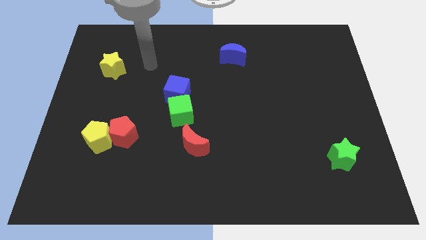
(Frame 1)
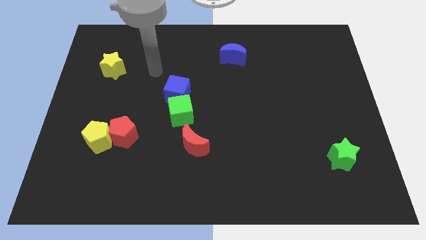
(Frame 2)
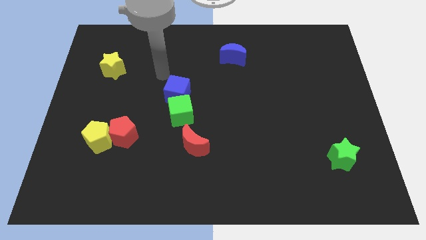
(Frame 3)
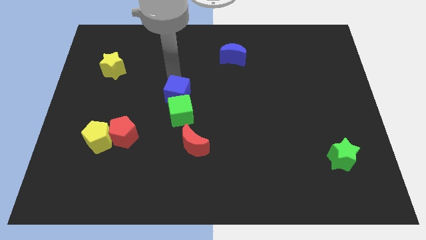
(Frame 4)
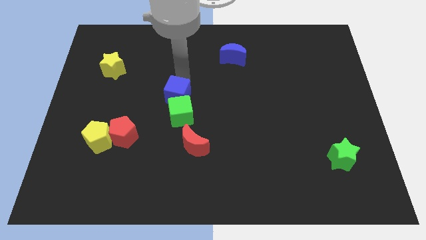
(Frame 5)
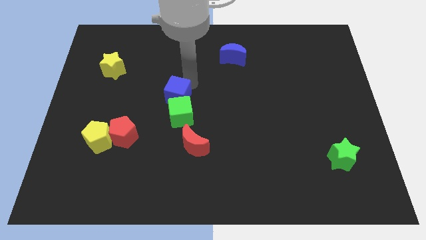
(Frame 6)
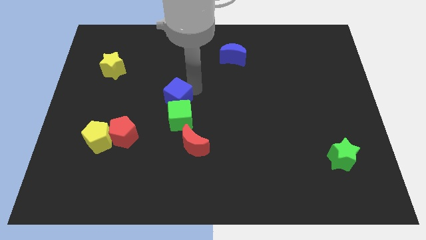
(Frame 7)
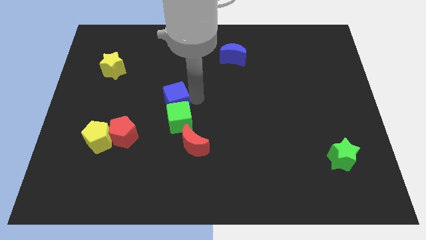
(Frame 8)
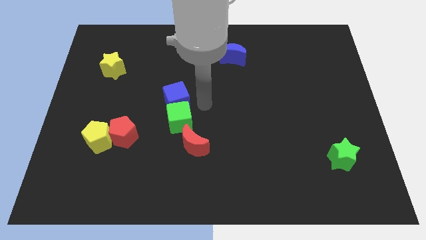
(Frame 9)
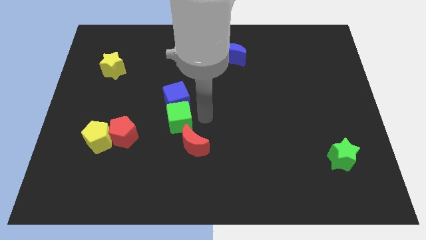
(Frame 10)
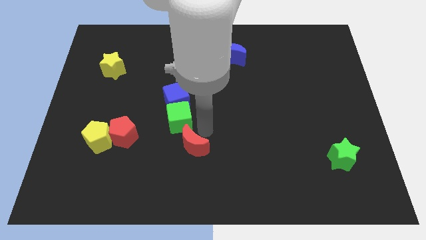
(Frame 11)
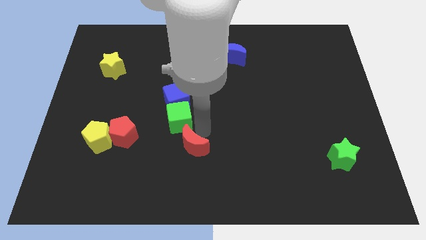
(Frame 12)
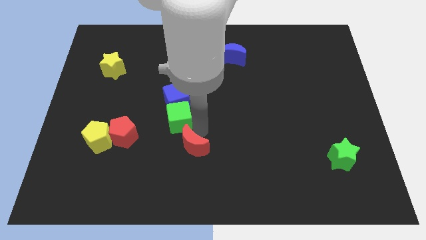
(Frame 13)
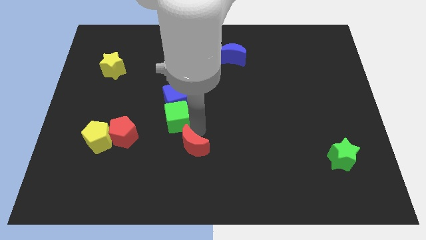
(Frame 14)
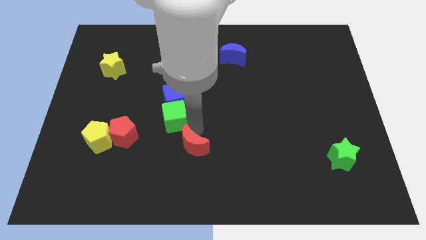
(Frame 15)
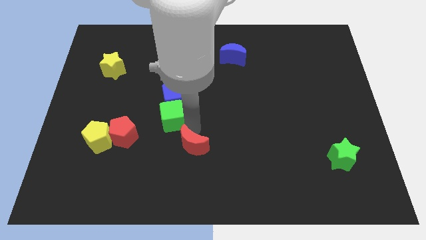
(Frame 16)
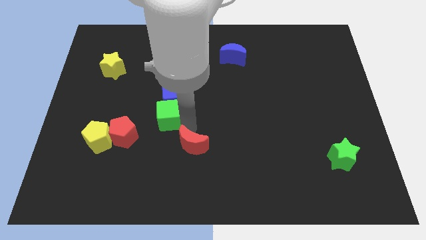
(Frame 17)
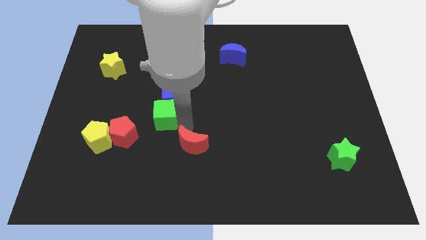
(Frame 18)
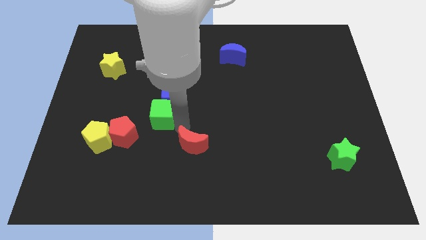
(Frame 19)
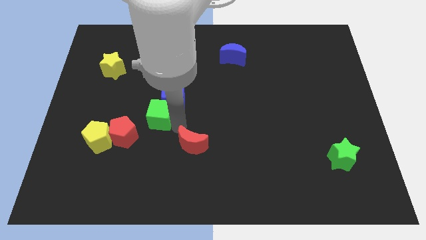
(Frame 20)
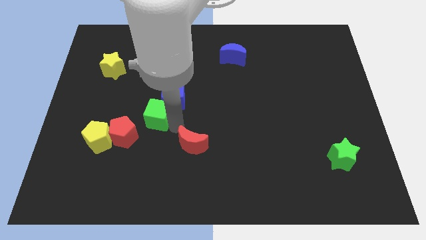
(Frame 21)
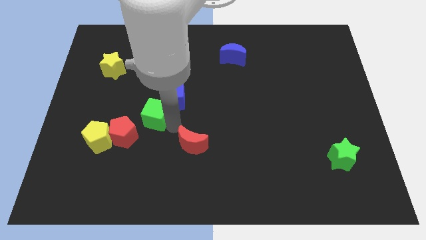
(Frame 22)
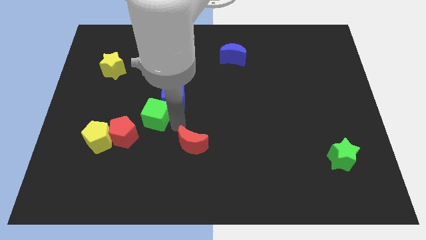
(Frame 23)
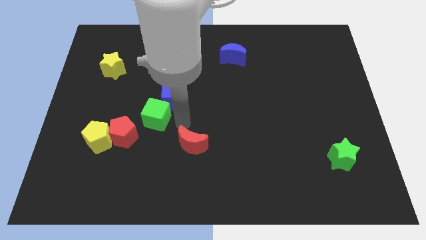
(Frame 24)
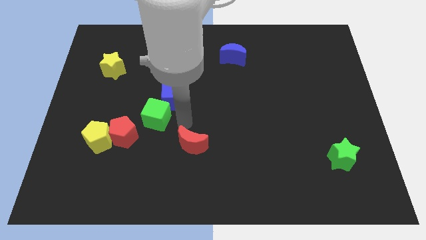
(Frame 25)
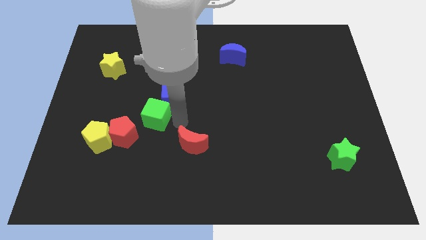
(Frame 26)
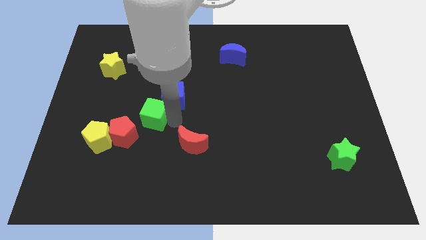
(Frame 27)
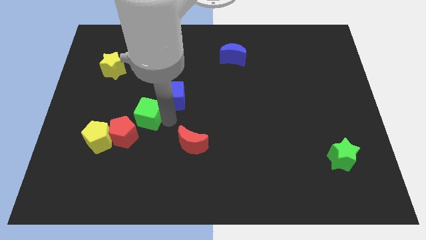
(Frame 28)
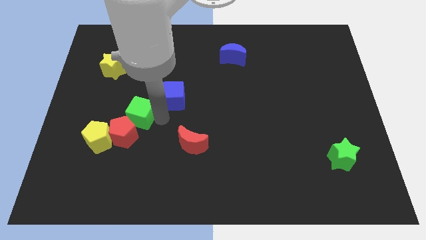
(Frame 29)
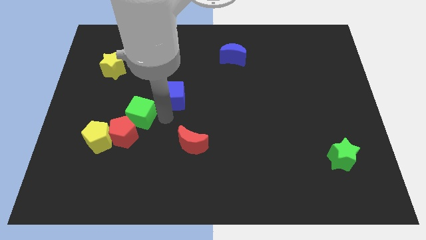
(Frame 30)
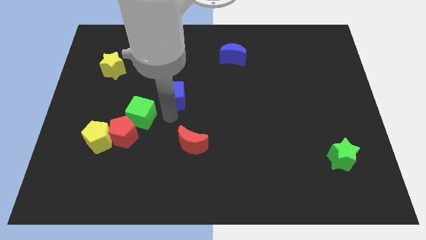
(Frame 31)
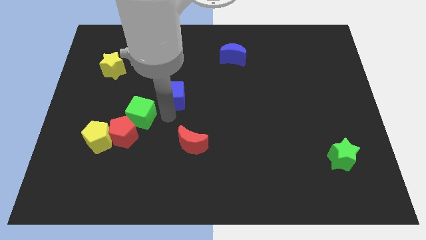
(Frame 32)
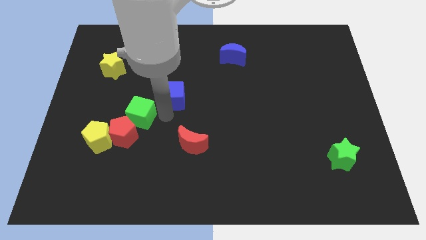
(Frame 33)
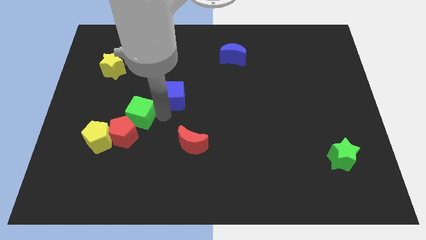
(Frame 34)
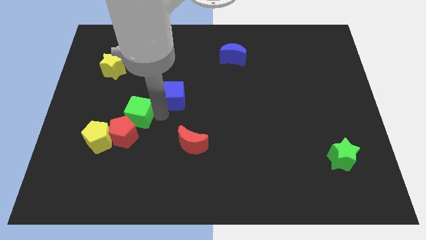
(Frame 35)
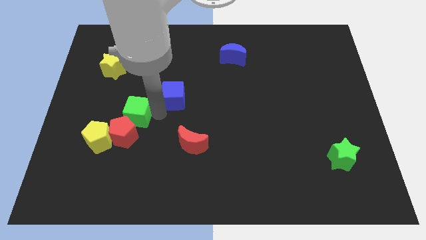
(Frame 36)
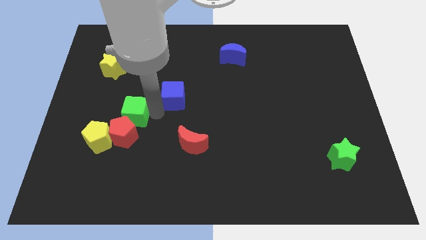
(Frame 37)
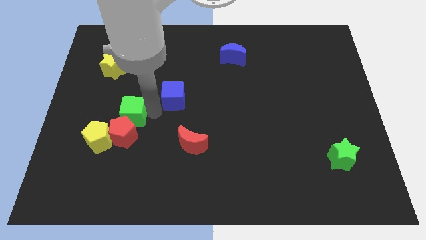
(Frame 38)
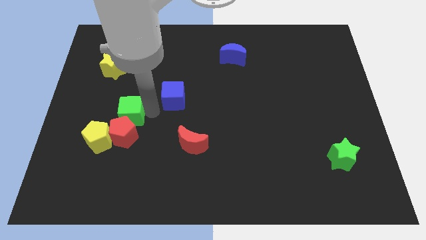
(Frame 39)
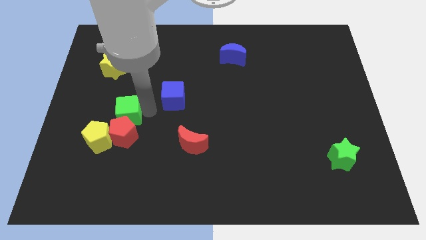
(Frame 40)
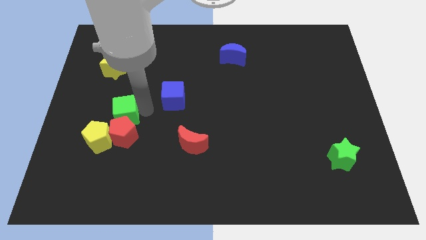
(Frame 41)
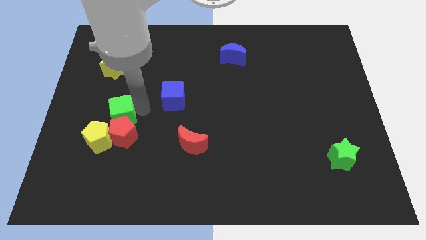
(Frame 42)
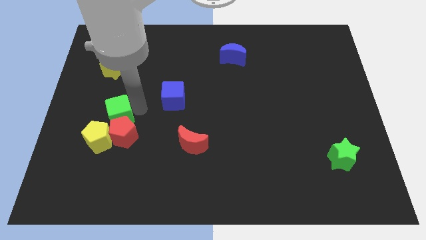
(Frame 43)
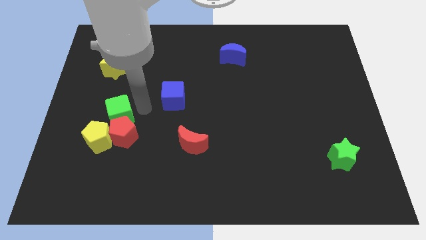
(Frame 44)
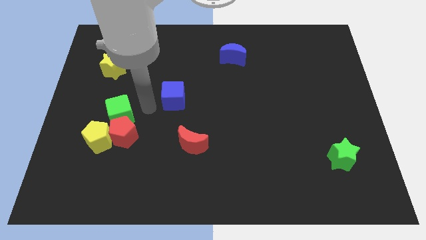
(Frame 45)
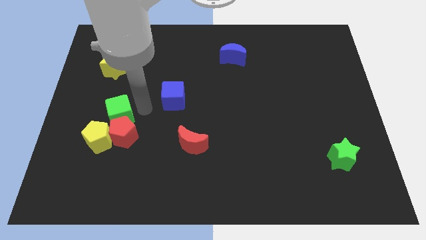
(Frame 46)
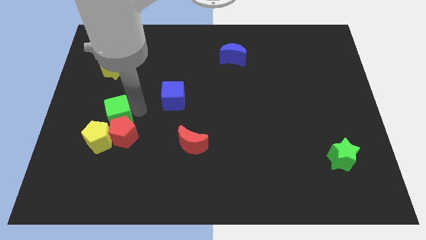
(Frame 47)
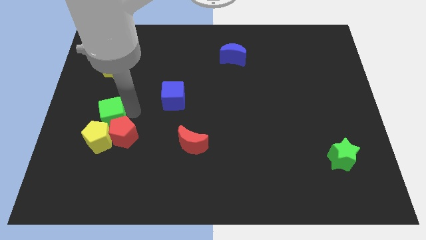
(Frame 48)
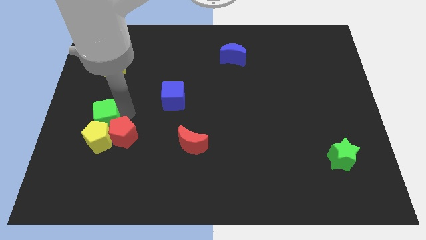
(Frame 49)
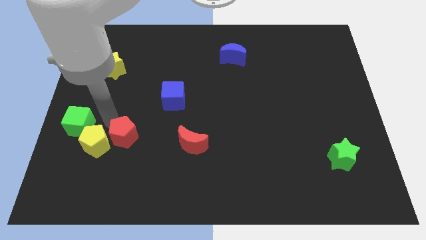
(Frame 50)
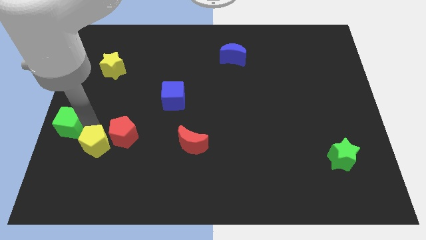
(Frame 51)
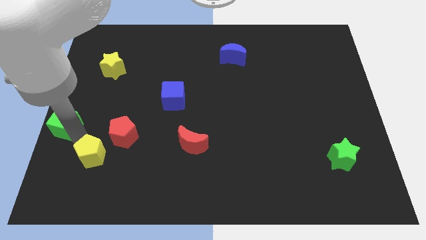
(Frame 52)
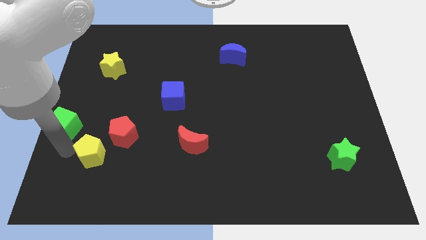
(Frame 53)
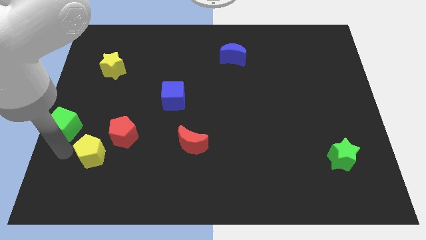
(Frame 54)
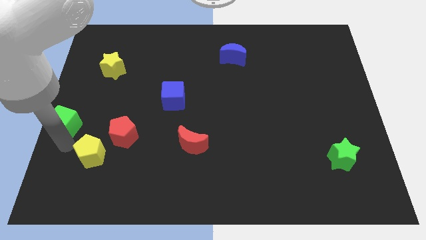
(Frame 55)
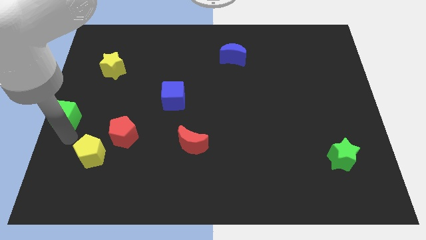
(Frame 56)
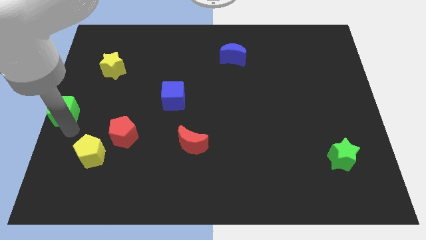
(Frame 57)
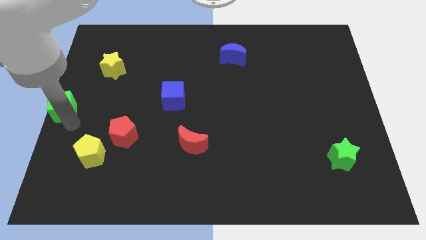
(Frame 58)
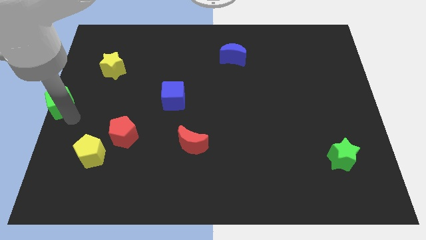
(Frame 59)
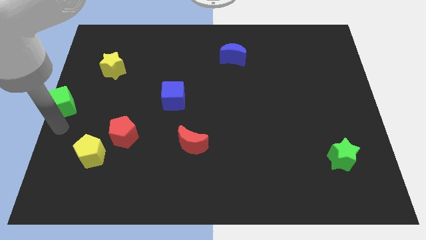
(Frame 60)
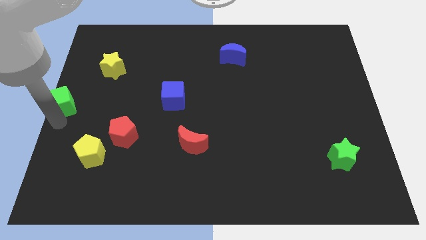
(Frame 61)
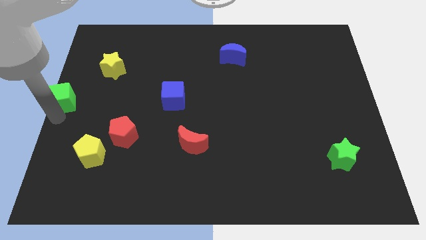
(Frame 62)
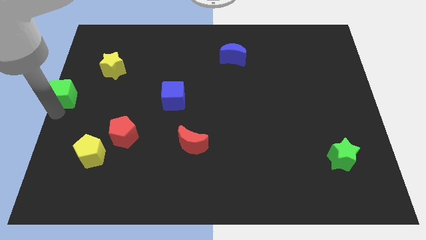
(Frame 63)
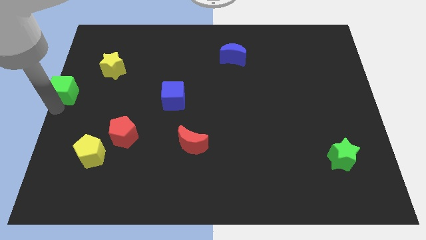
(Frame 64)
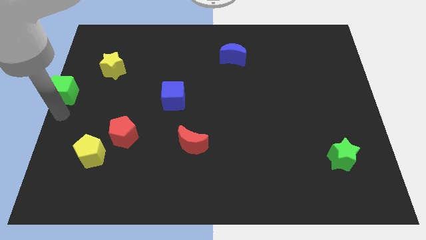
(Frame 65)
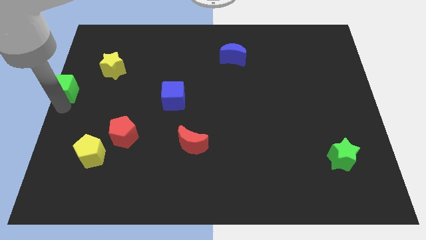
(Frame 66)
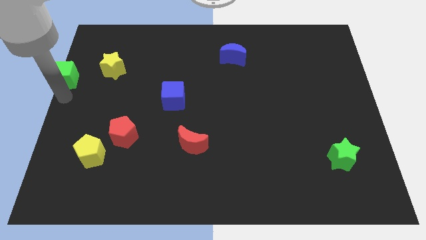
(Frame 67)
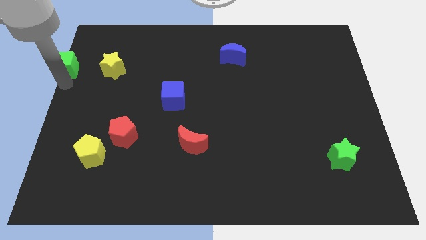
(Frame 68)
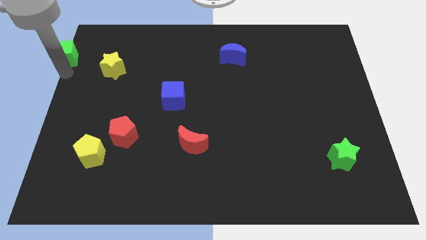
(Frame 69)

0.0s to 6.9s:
put the green cube to the upper left corner
